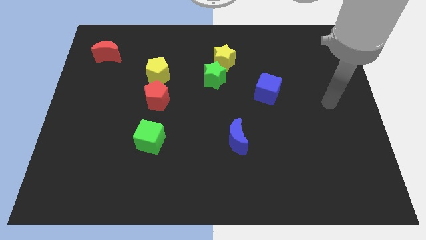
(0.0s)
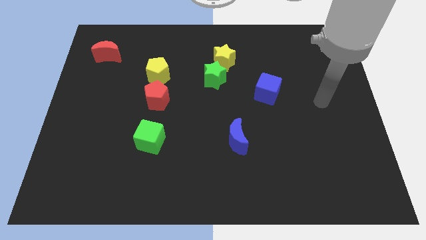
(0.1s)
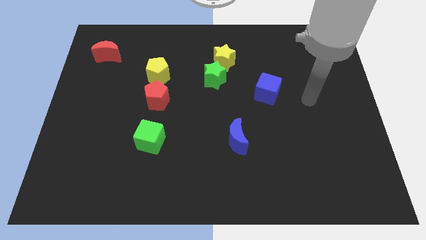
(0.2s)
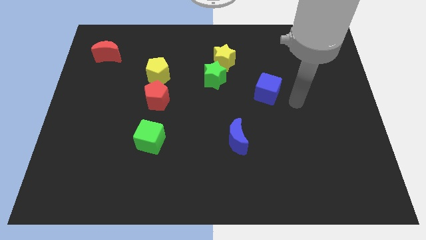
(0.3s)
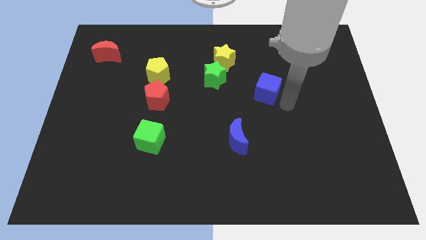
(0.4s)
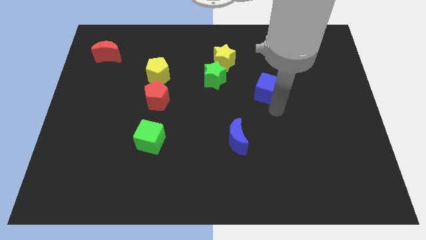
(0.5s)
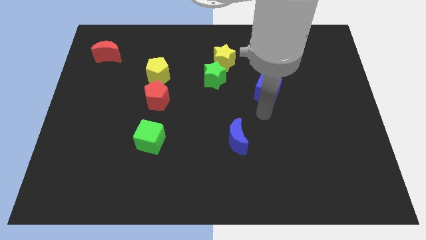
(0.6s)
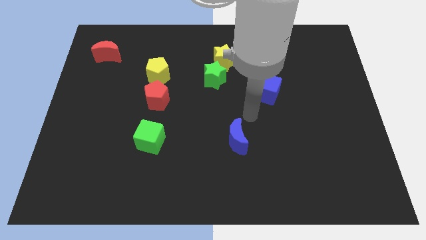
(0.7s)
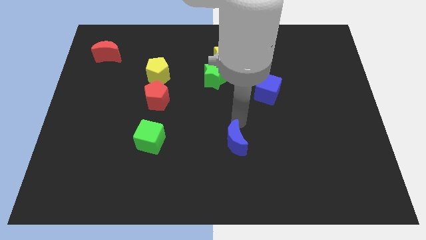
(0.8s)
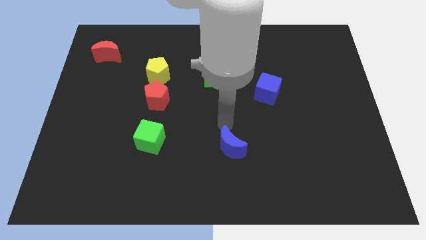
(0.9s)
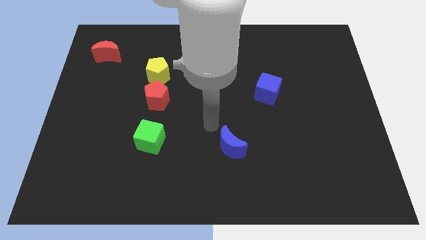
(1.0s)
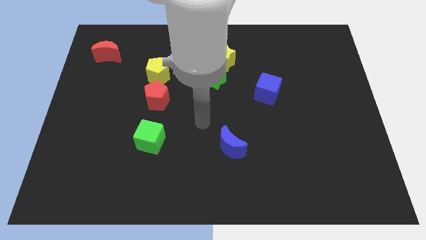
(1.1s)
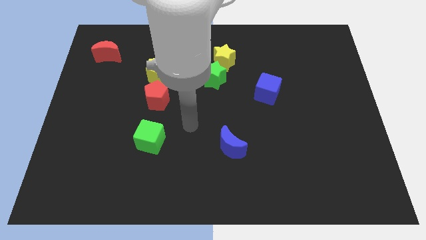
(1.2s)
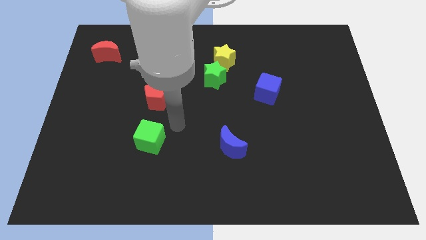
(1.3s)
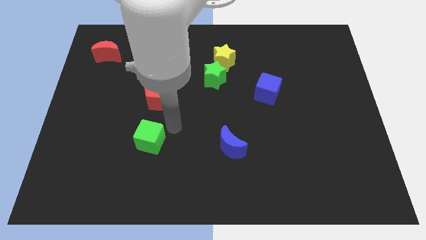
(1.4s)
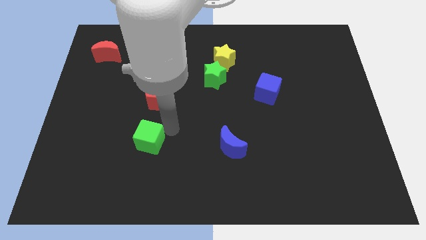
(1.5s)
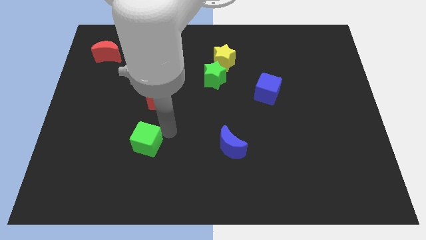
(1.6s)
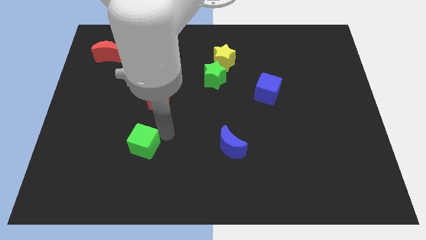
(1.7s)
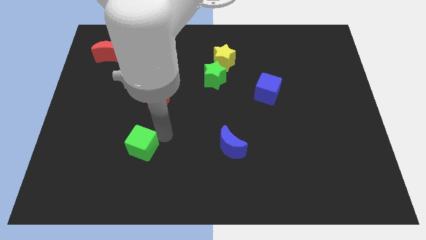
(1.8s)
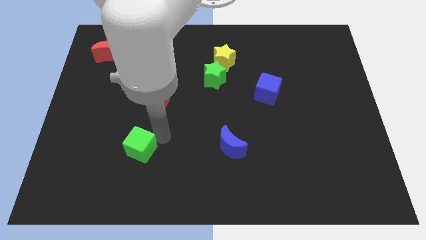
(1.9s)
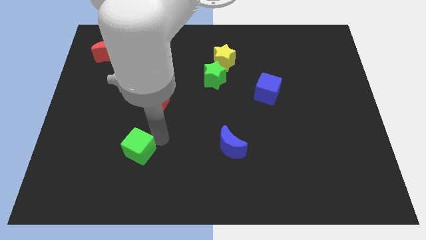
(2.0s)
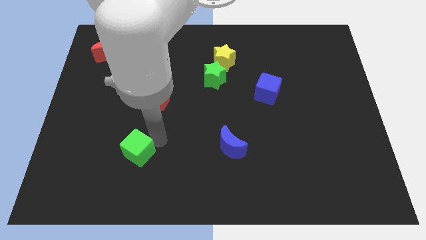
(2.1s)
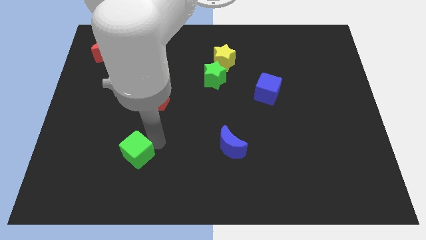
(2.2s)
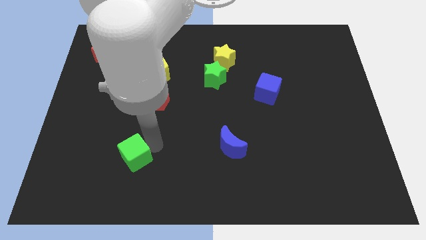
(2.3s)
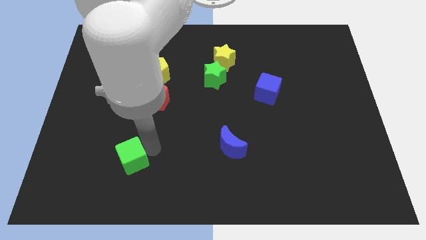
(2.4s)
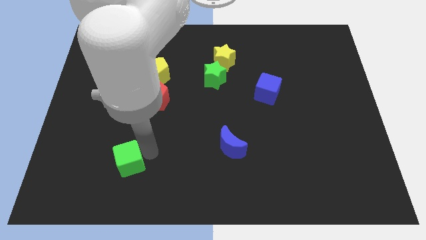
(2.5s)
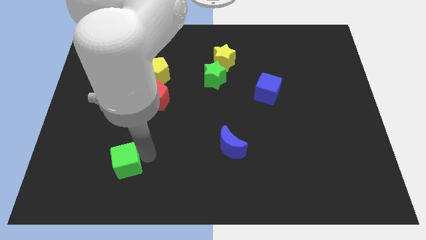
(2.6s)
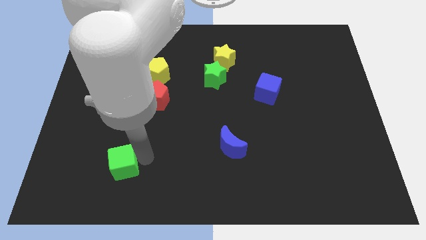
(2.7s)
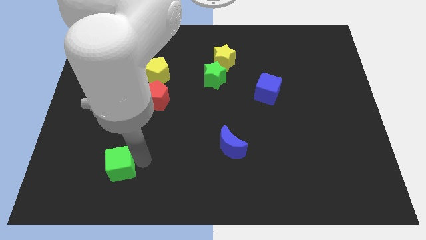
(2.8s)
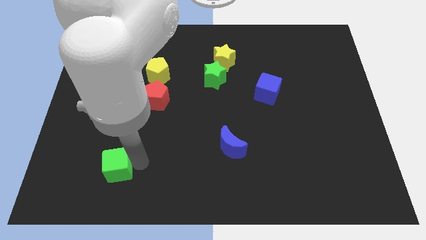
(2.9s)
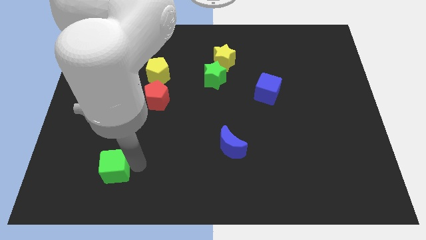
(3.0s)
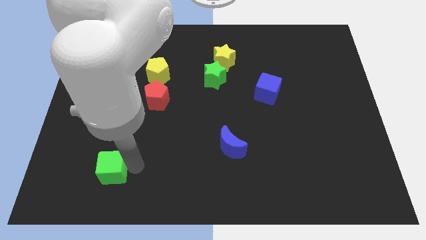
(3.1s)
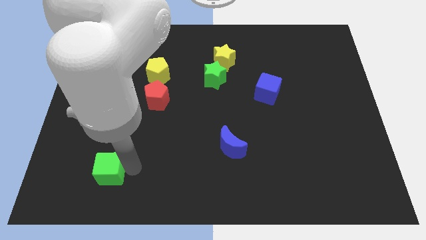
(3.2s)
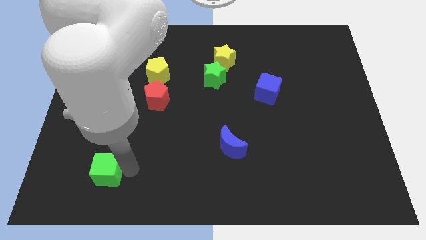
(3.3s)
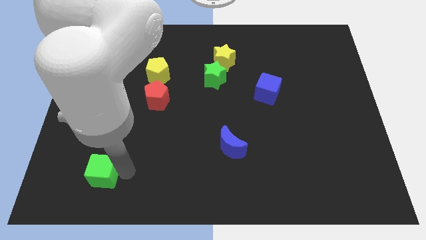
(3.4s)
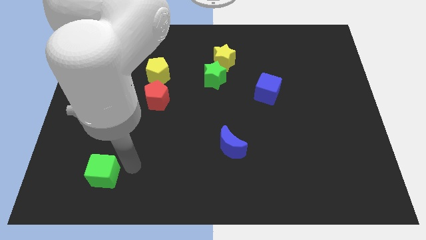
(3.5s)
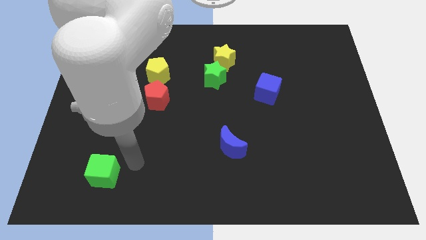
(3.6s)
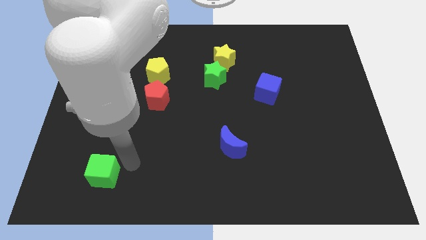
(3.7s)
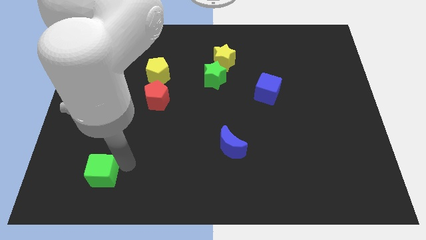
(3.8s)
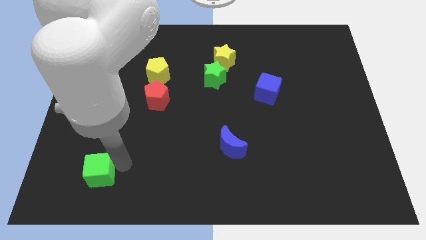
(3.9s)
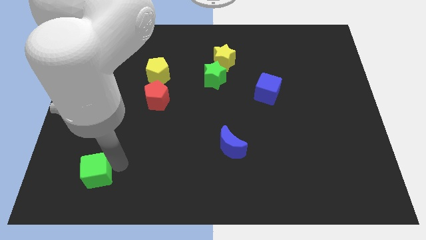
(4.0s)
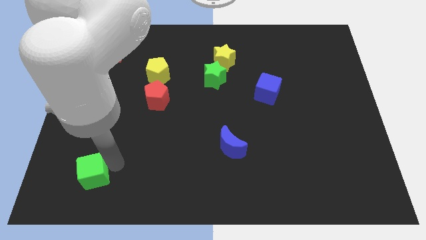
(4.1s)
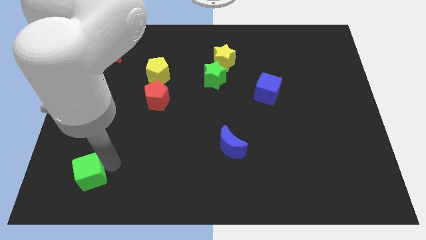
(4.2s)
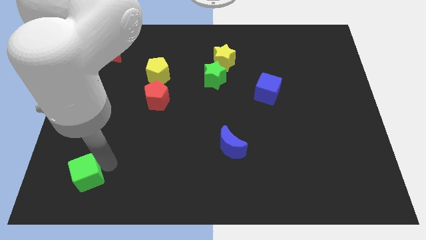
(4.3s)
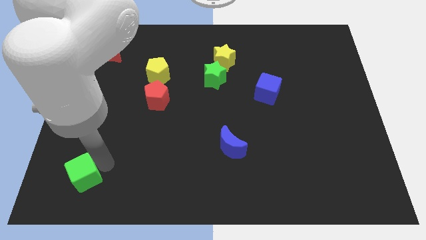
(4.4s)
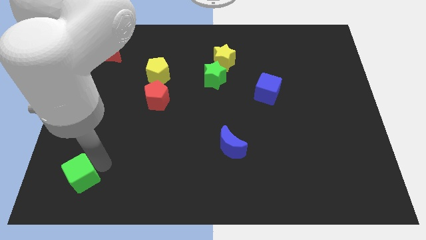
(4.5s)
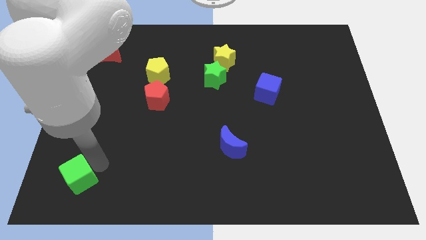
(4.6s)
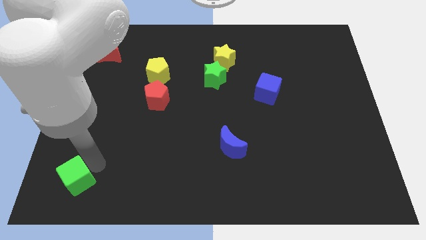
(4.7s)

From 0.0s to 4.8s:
move the green cube to the bottom left corner

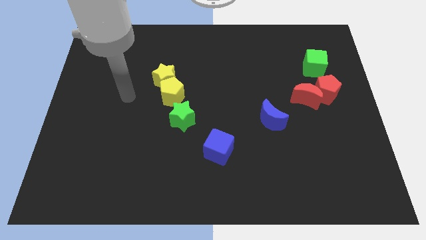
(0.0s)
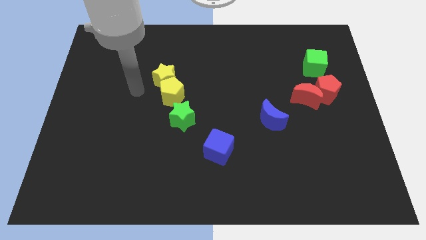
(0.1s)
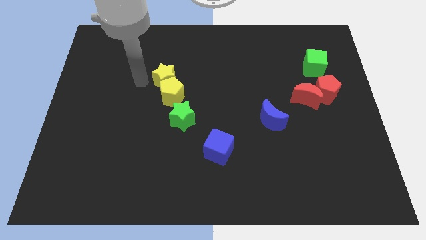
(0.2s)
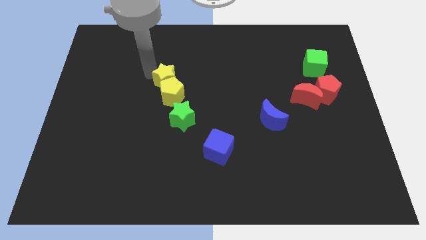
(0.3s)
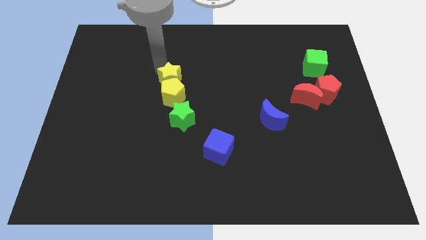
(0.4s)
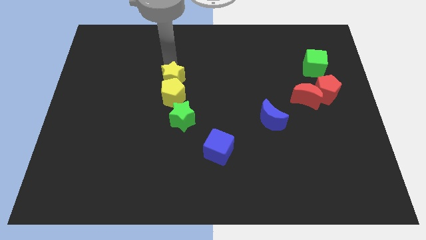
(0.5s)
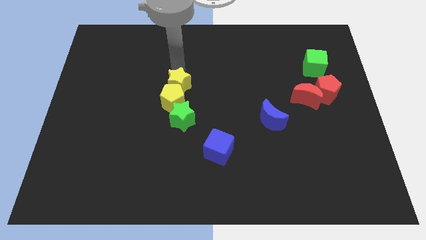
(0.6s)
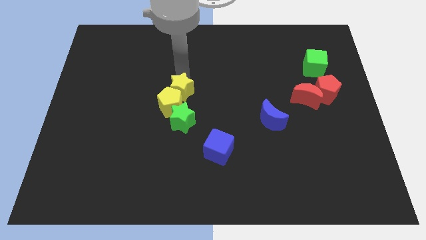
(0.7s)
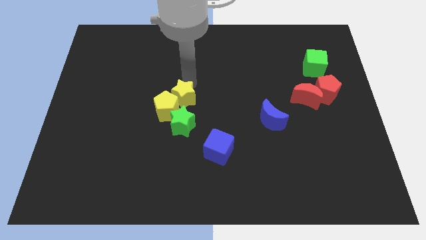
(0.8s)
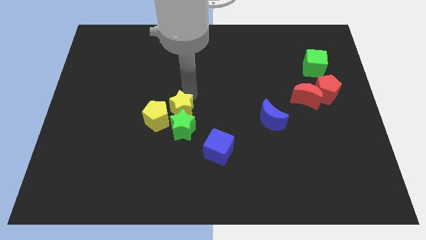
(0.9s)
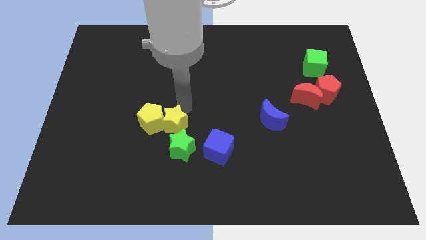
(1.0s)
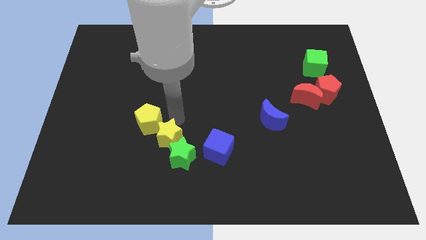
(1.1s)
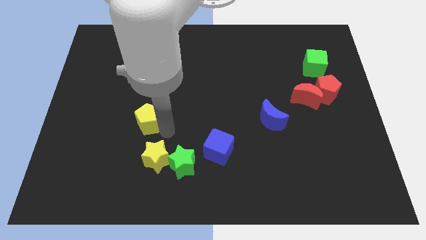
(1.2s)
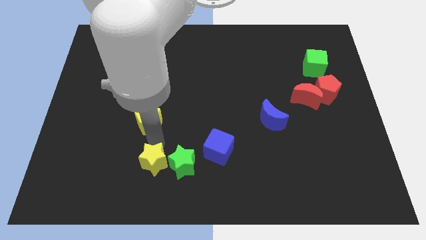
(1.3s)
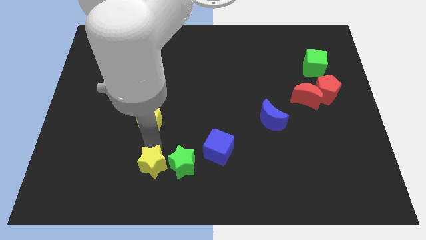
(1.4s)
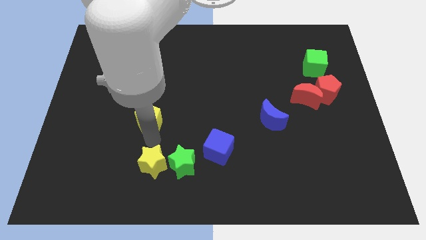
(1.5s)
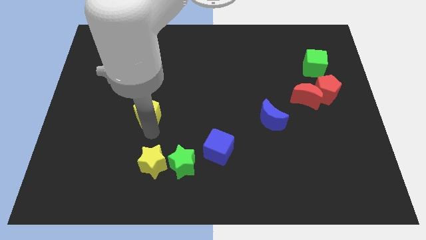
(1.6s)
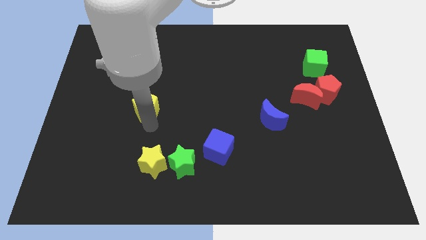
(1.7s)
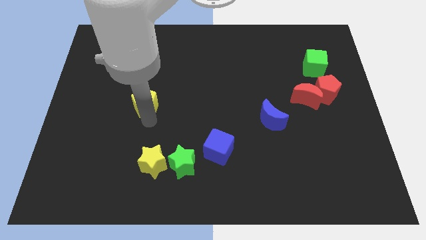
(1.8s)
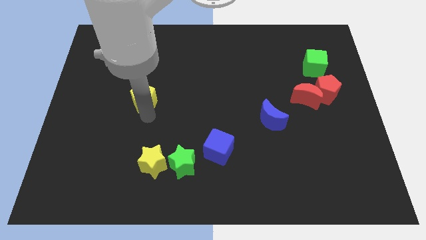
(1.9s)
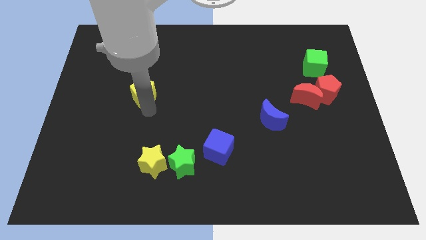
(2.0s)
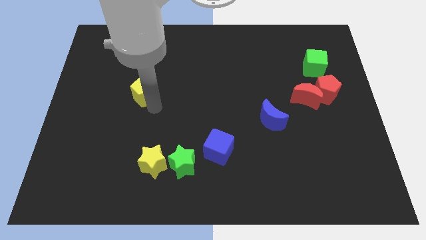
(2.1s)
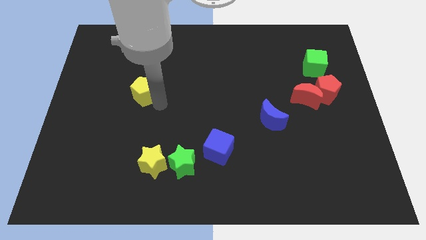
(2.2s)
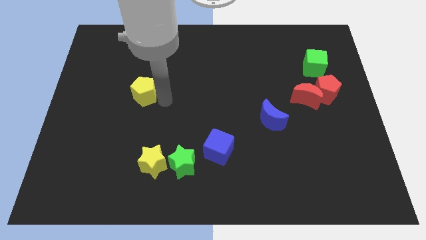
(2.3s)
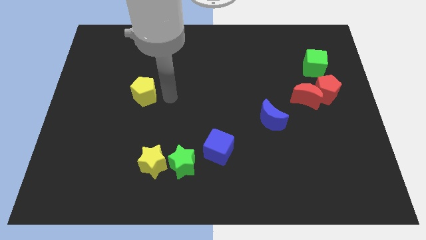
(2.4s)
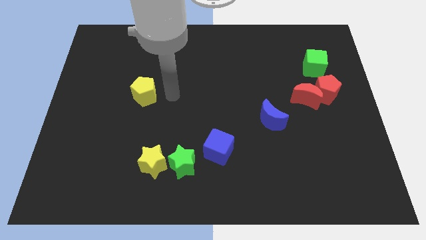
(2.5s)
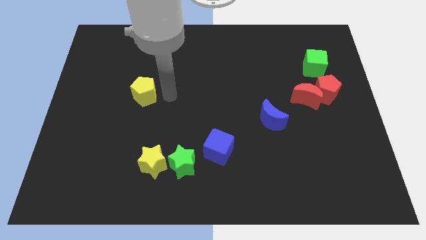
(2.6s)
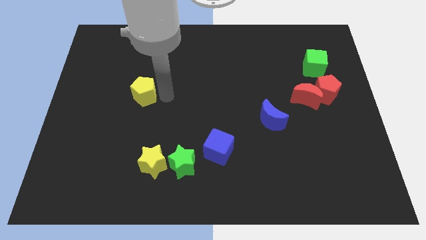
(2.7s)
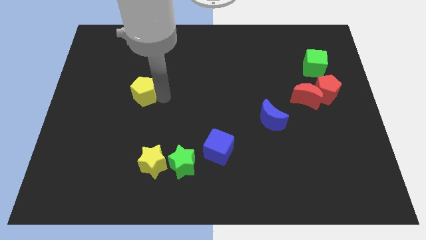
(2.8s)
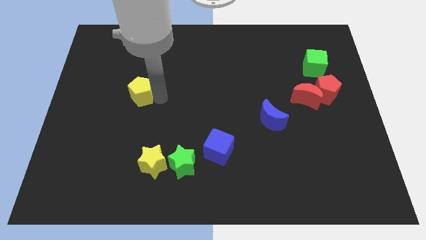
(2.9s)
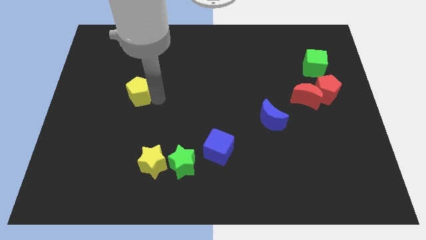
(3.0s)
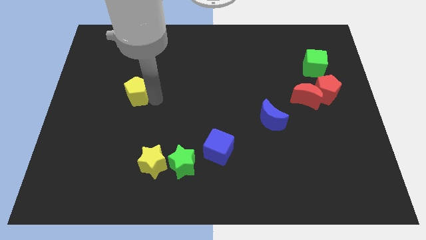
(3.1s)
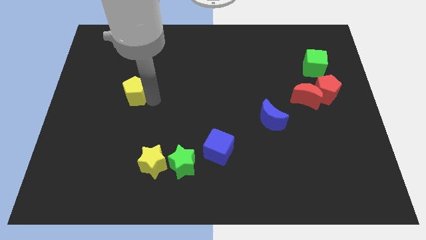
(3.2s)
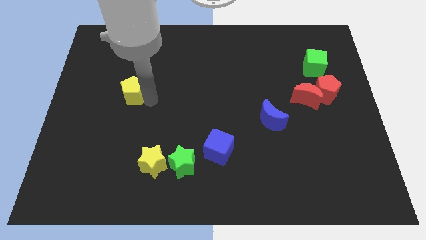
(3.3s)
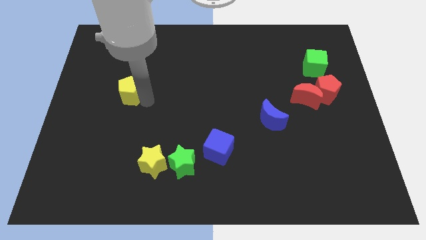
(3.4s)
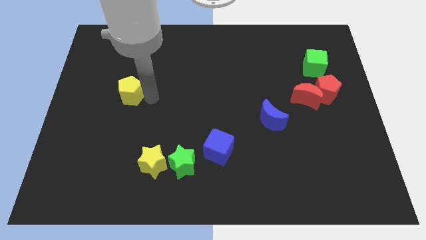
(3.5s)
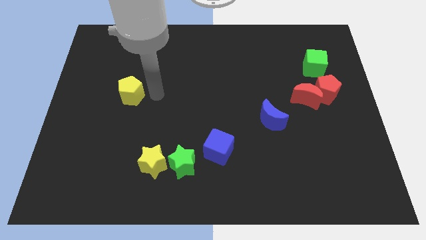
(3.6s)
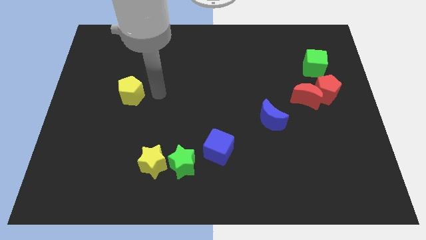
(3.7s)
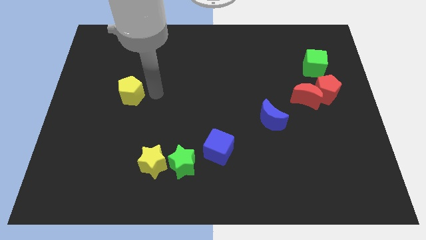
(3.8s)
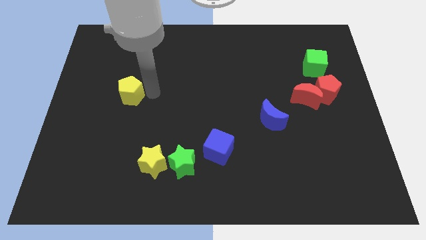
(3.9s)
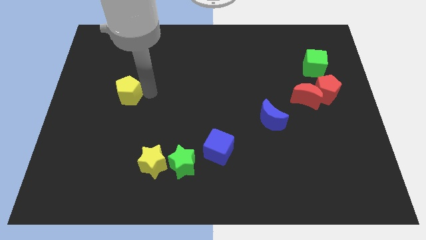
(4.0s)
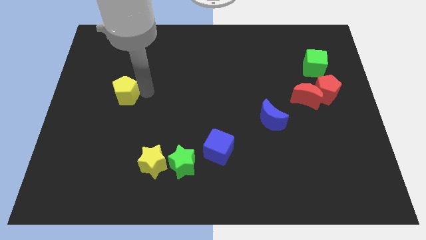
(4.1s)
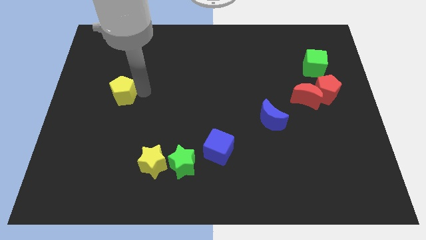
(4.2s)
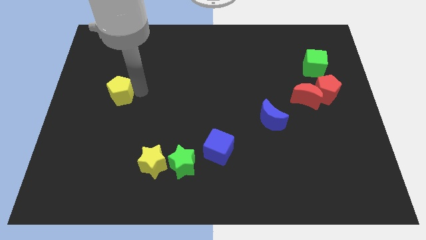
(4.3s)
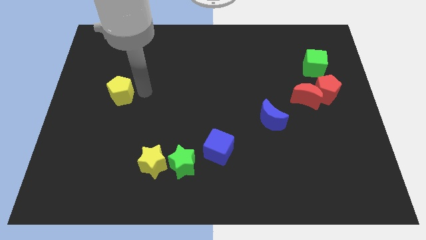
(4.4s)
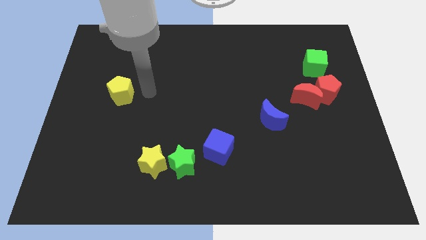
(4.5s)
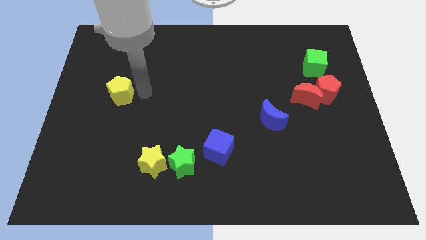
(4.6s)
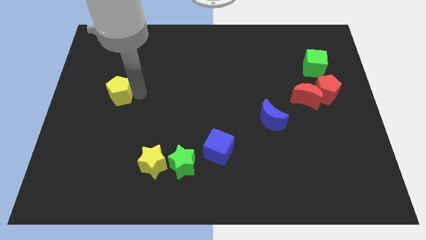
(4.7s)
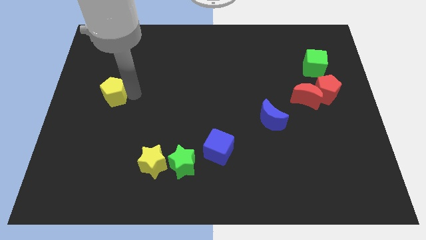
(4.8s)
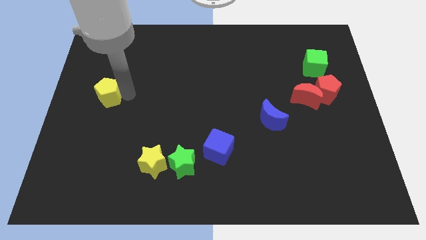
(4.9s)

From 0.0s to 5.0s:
slide the yellow pentagon to the center left
